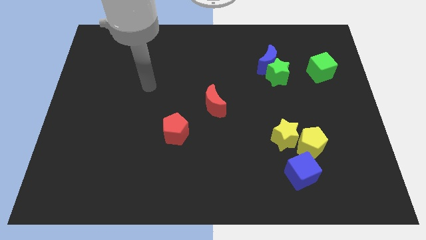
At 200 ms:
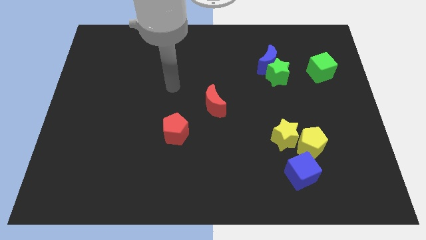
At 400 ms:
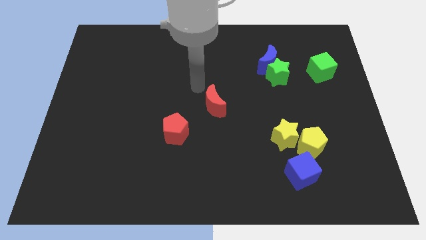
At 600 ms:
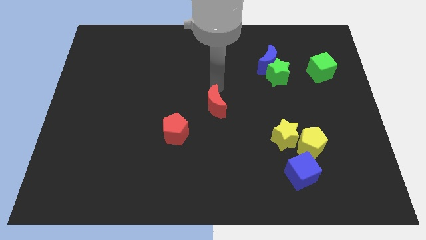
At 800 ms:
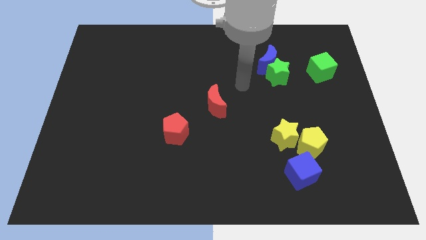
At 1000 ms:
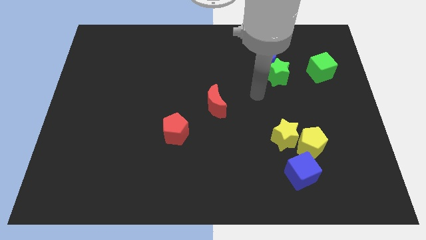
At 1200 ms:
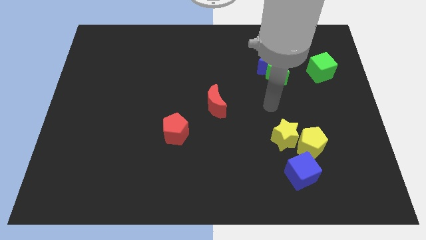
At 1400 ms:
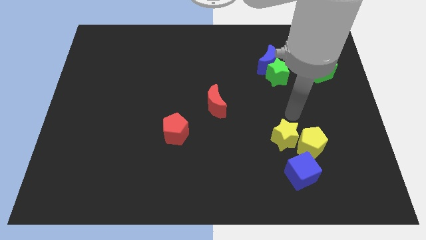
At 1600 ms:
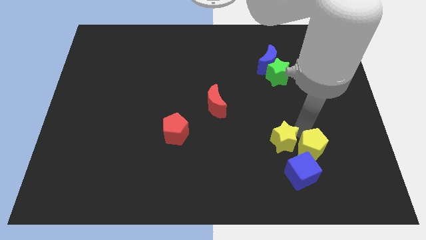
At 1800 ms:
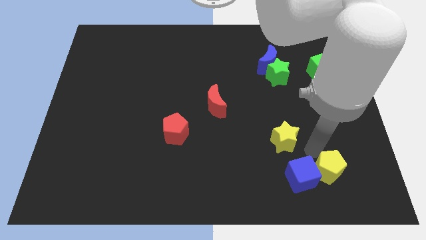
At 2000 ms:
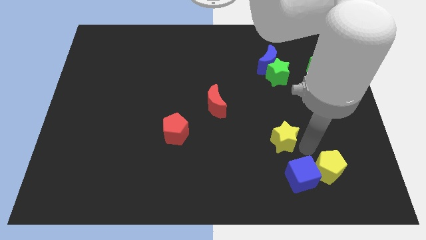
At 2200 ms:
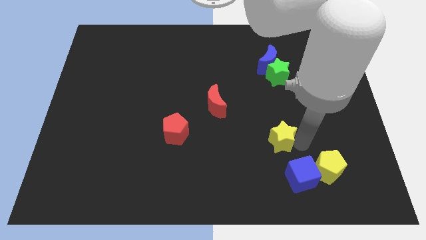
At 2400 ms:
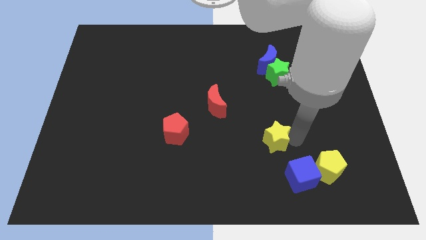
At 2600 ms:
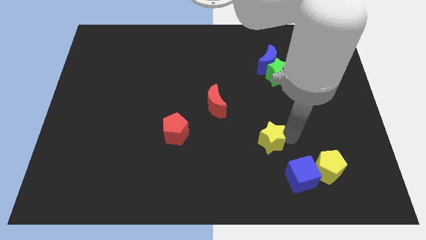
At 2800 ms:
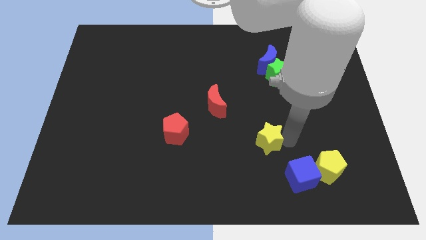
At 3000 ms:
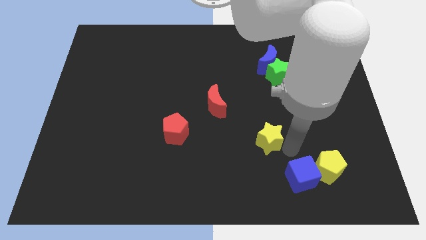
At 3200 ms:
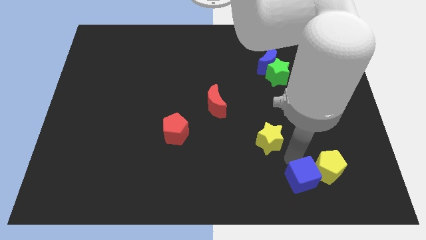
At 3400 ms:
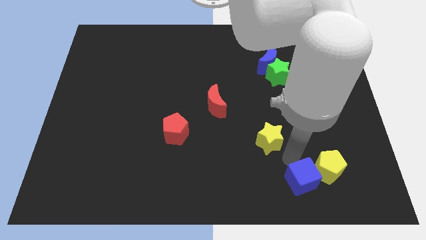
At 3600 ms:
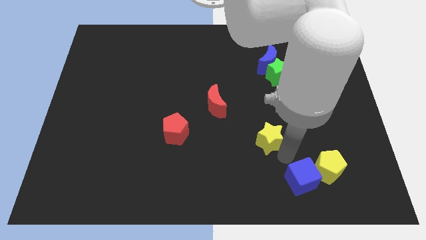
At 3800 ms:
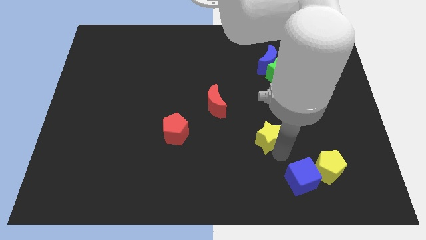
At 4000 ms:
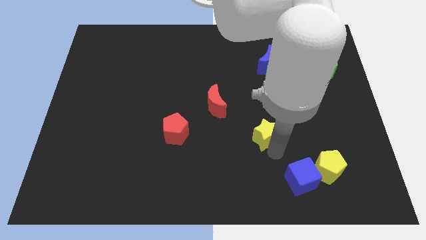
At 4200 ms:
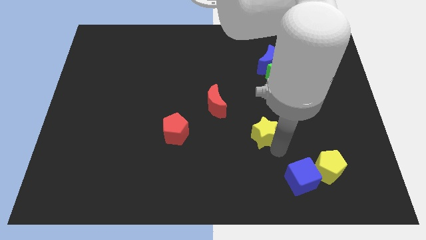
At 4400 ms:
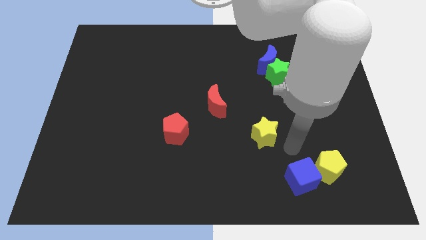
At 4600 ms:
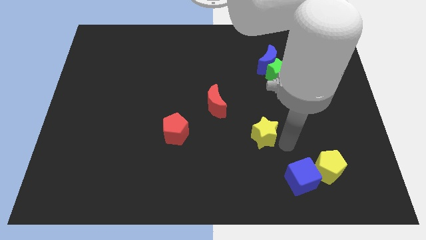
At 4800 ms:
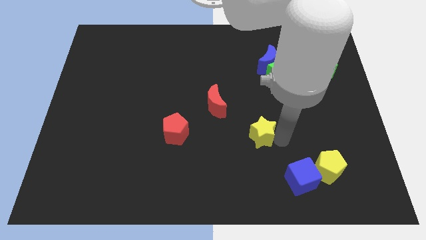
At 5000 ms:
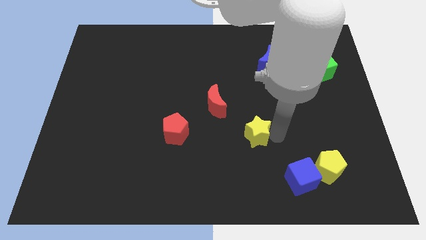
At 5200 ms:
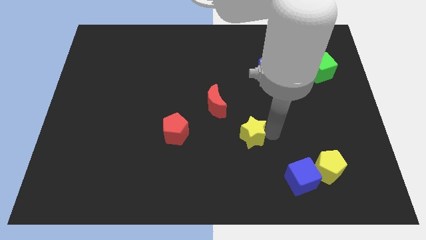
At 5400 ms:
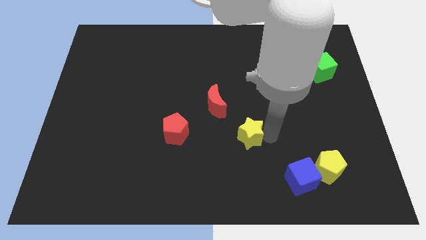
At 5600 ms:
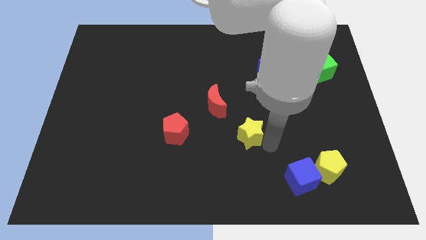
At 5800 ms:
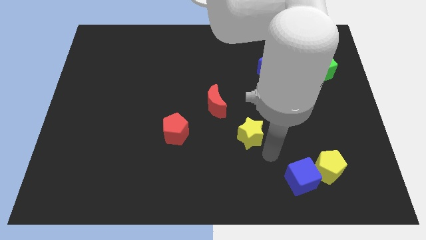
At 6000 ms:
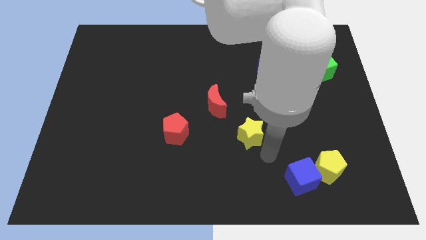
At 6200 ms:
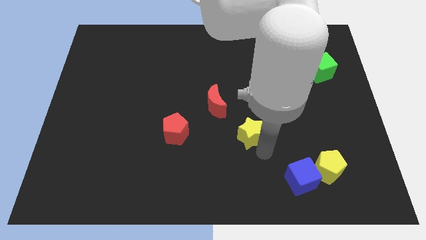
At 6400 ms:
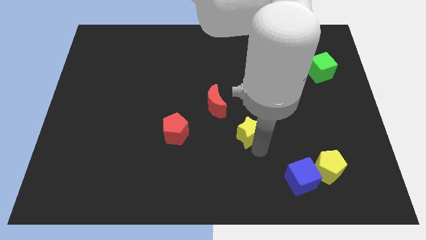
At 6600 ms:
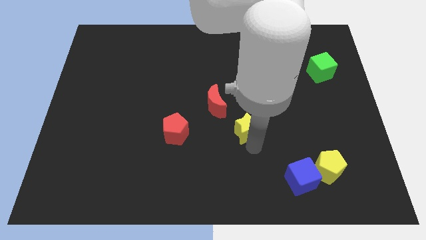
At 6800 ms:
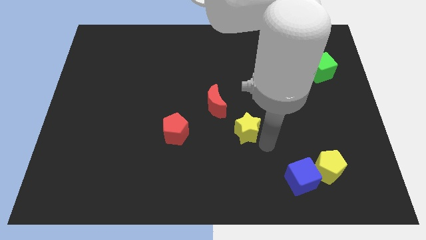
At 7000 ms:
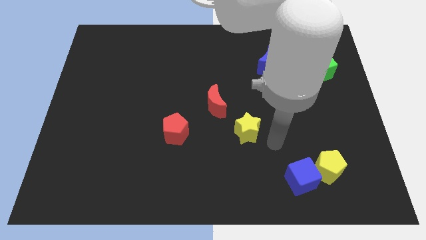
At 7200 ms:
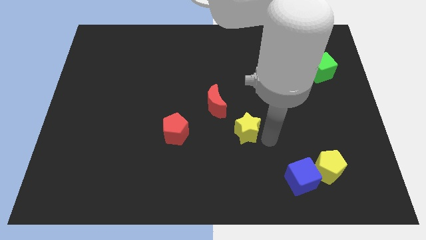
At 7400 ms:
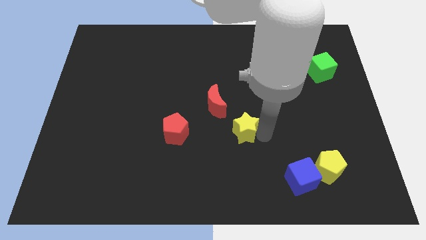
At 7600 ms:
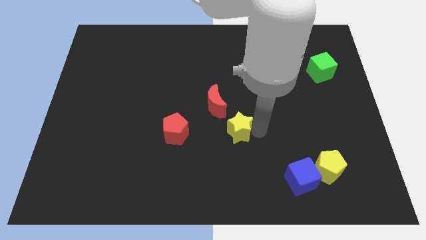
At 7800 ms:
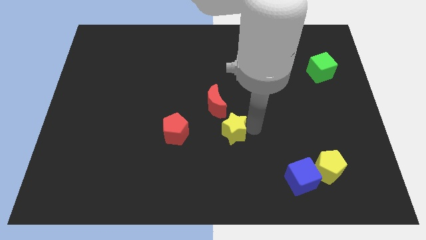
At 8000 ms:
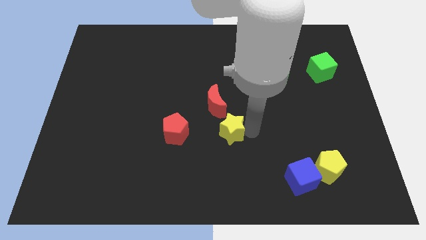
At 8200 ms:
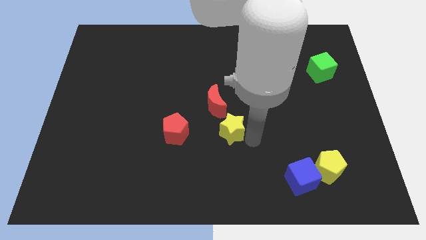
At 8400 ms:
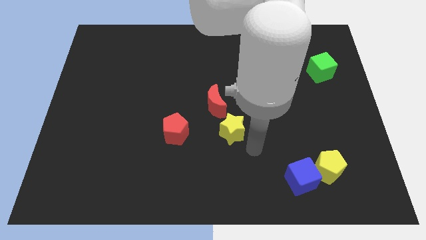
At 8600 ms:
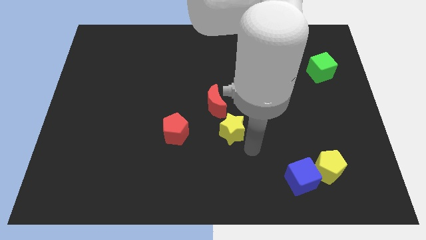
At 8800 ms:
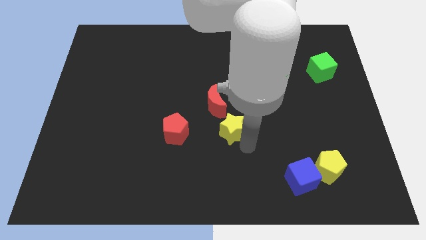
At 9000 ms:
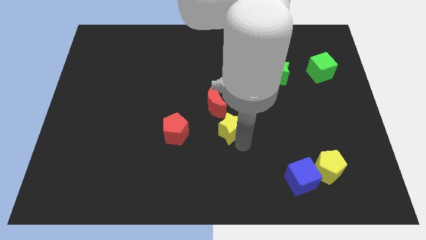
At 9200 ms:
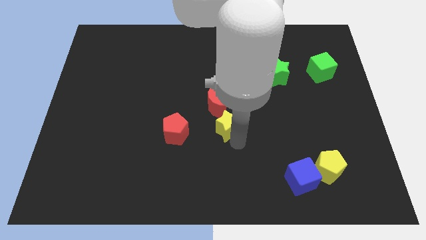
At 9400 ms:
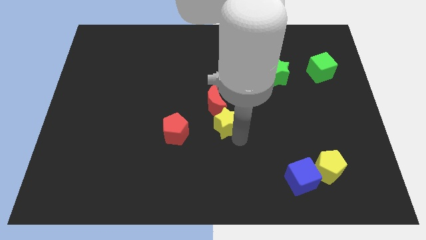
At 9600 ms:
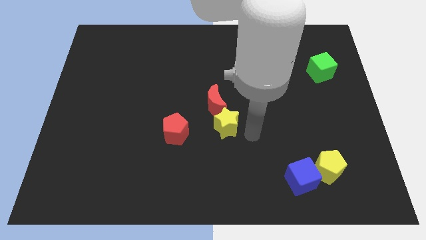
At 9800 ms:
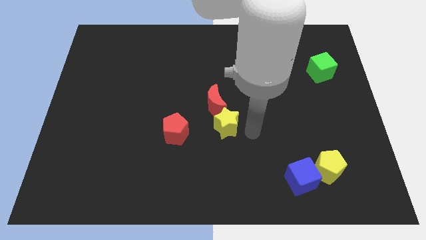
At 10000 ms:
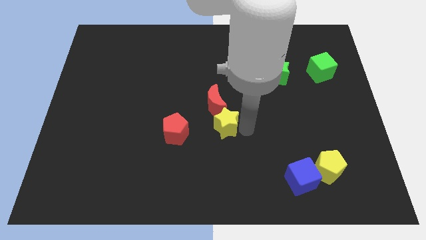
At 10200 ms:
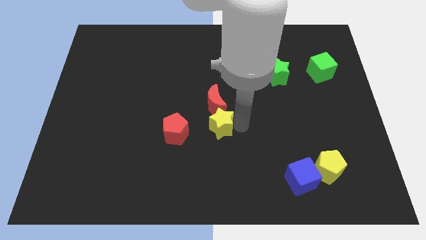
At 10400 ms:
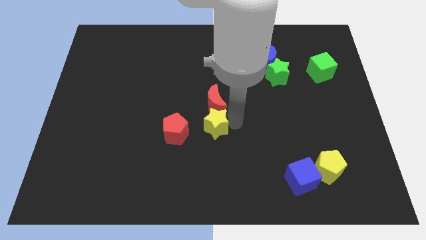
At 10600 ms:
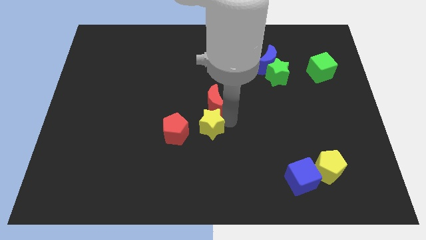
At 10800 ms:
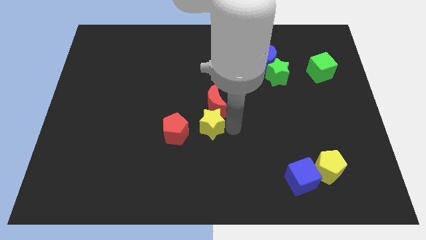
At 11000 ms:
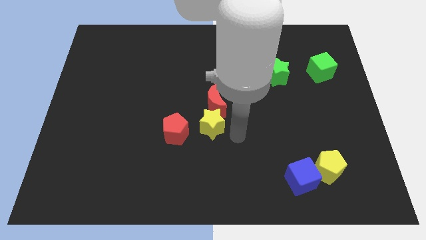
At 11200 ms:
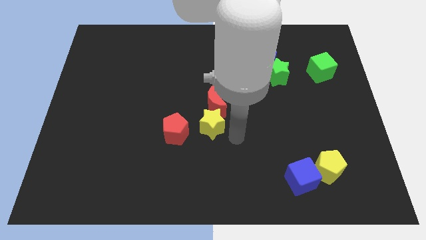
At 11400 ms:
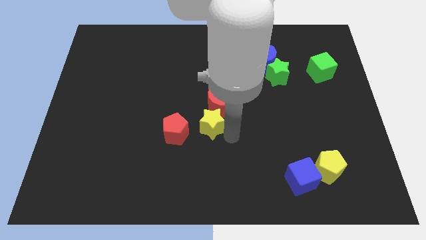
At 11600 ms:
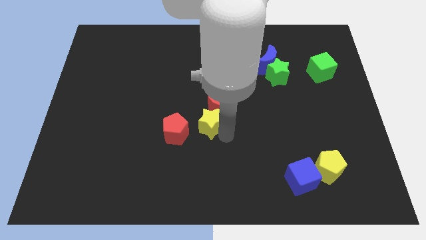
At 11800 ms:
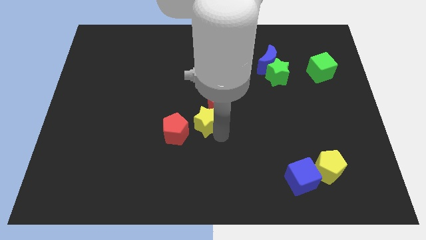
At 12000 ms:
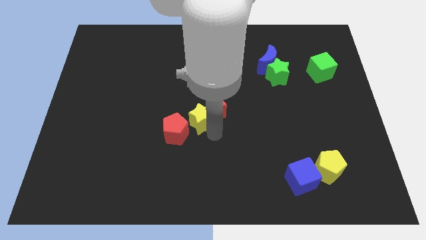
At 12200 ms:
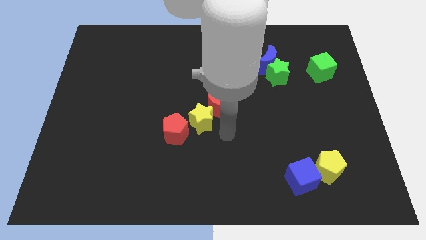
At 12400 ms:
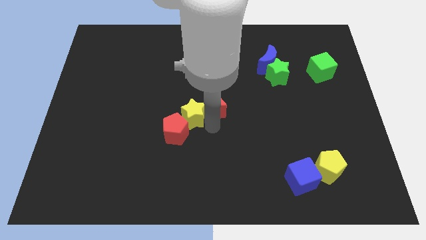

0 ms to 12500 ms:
put the yellow star just left of the red moon

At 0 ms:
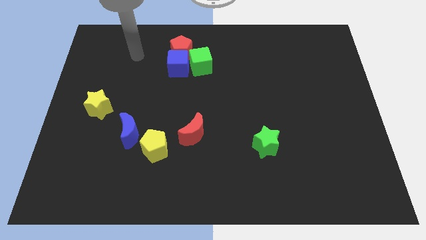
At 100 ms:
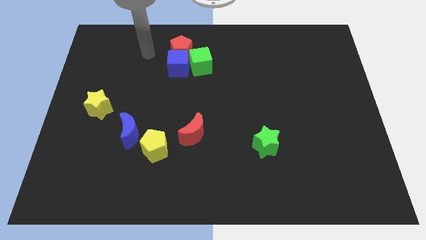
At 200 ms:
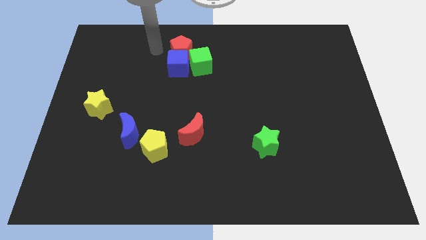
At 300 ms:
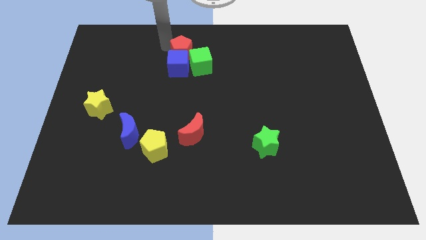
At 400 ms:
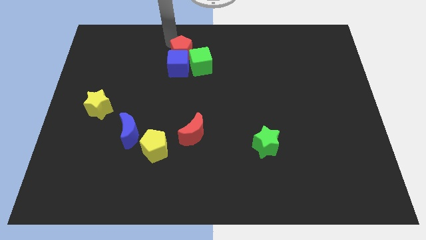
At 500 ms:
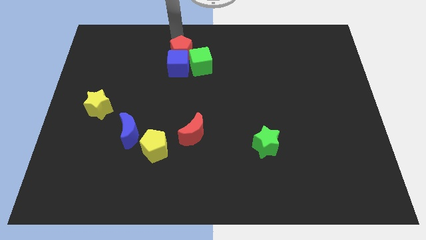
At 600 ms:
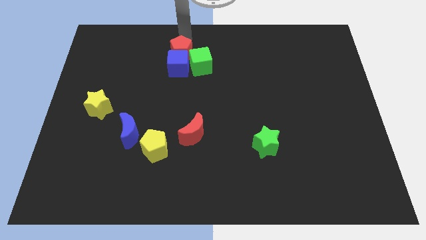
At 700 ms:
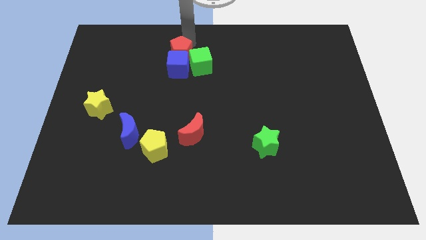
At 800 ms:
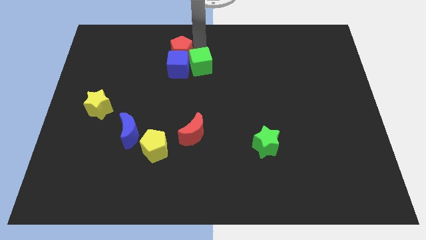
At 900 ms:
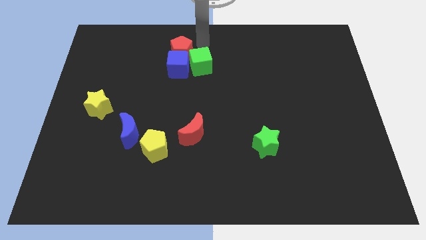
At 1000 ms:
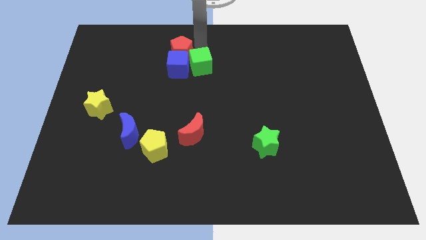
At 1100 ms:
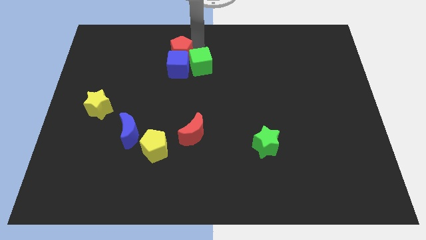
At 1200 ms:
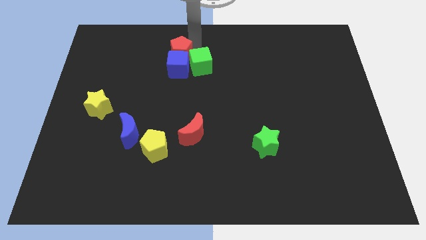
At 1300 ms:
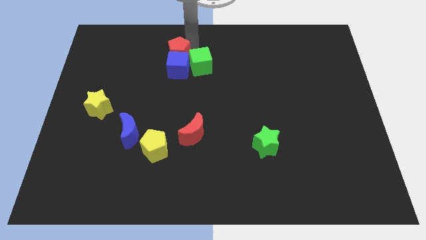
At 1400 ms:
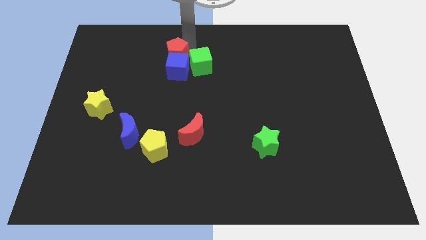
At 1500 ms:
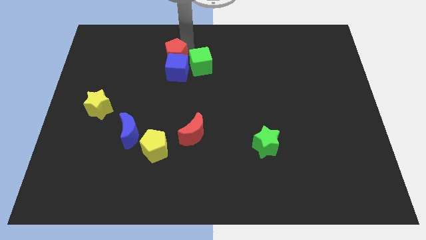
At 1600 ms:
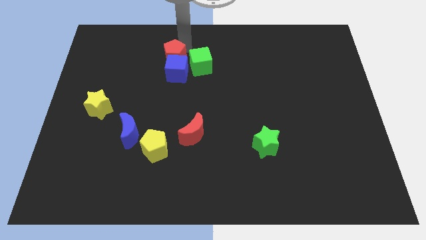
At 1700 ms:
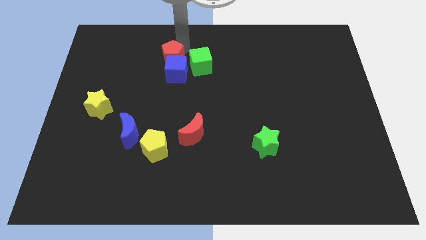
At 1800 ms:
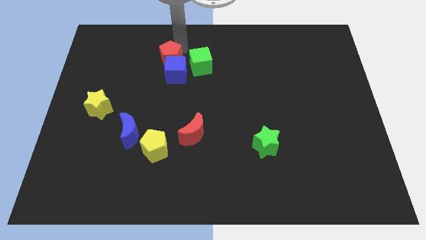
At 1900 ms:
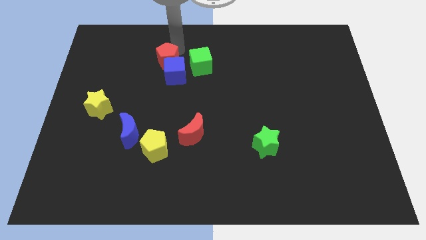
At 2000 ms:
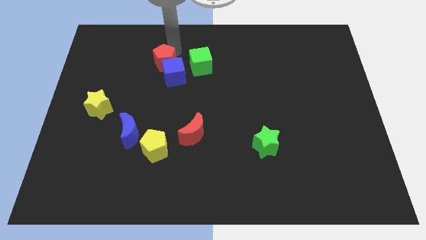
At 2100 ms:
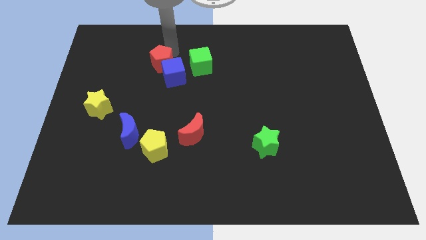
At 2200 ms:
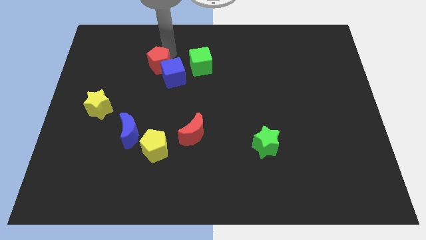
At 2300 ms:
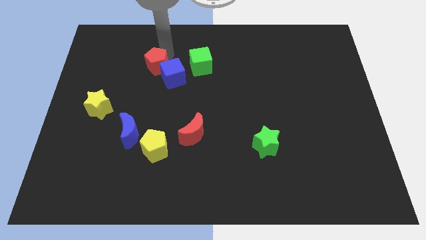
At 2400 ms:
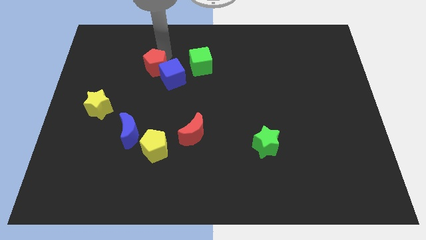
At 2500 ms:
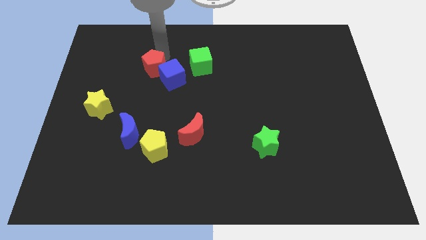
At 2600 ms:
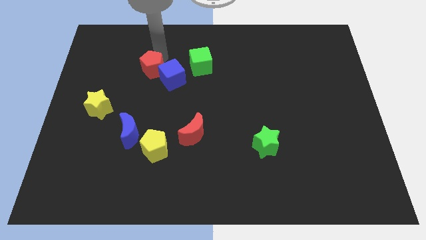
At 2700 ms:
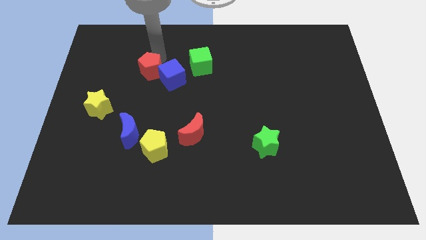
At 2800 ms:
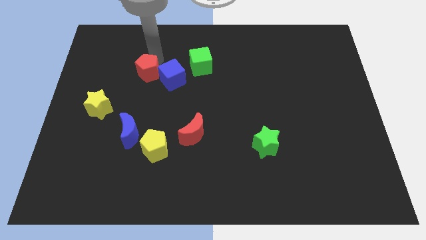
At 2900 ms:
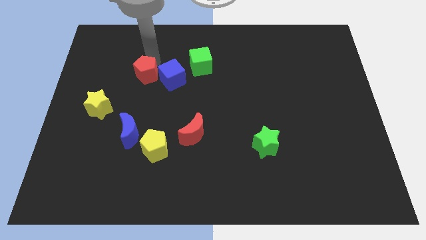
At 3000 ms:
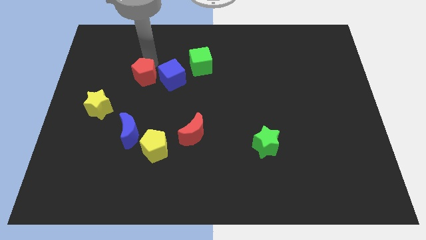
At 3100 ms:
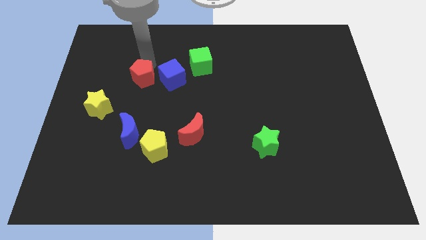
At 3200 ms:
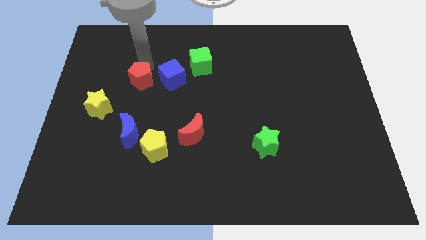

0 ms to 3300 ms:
push the red pentagon to the top right side of the yellow star
